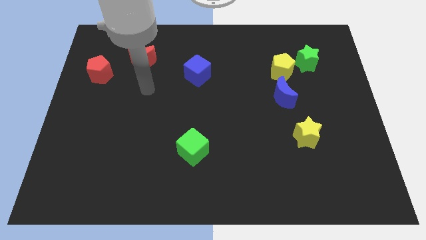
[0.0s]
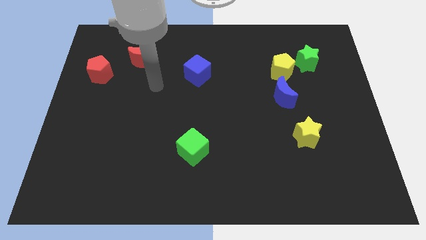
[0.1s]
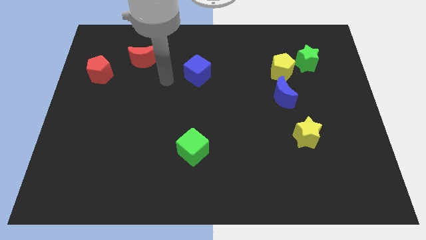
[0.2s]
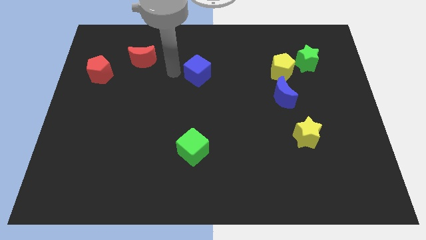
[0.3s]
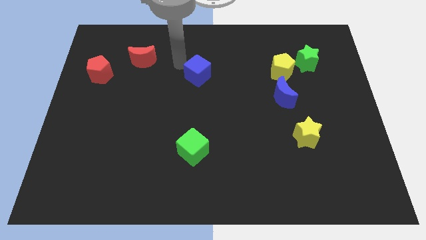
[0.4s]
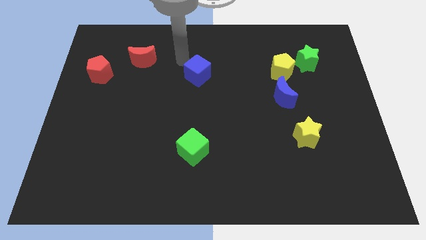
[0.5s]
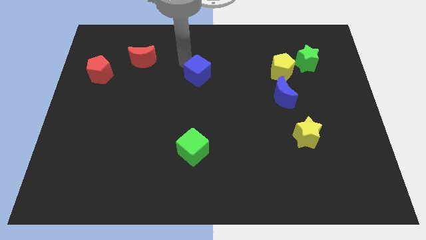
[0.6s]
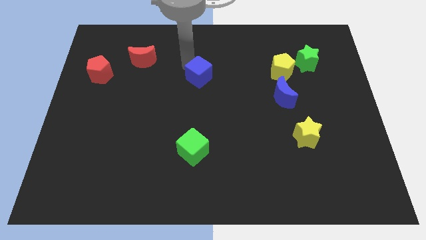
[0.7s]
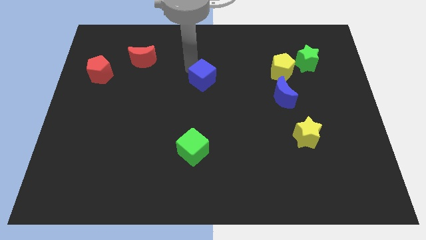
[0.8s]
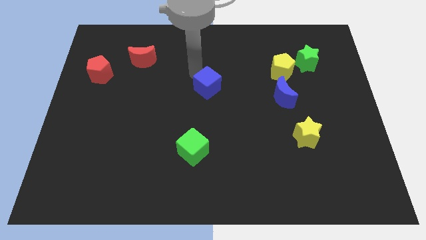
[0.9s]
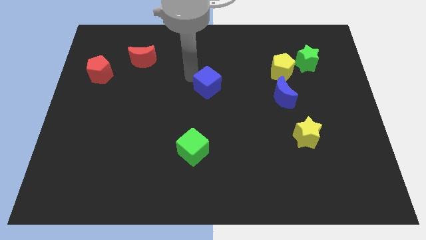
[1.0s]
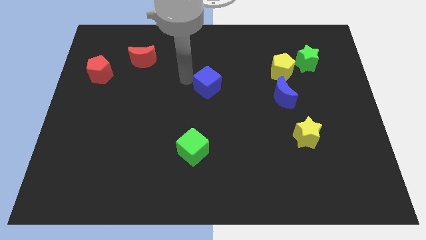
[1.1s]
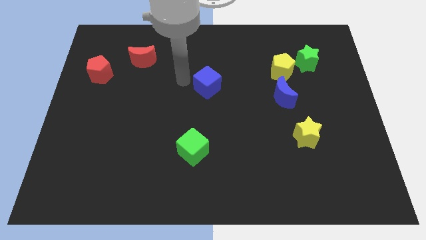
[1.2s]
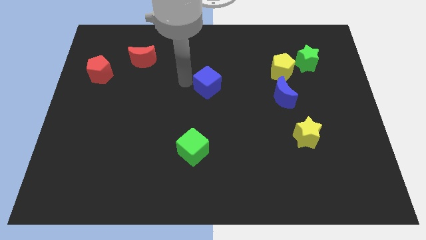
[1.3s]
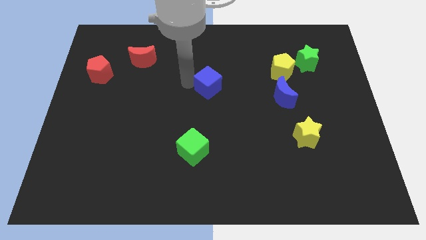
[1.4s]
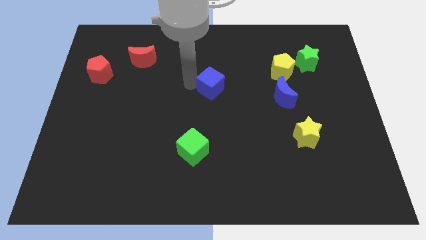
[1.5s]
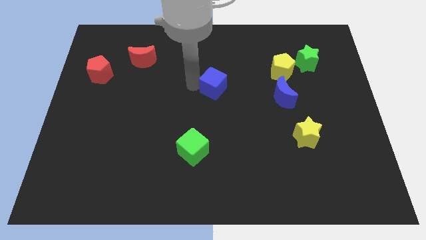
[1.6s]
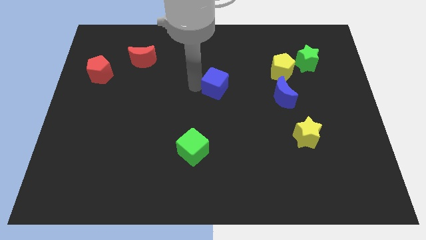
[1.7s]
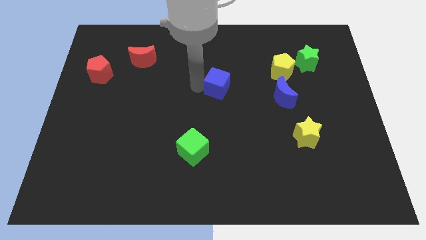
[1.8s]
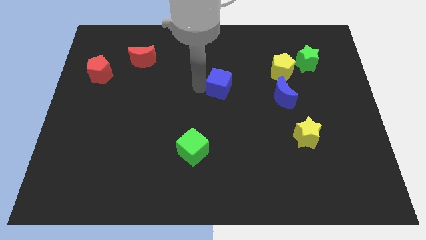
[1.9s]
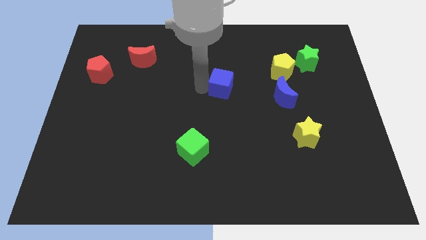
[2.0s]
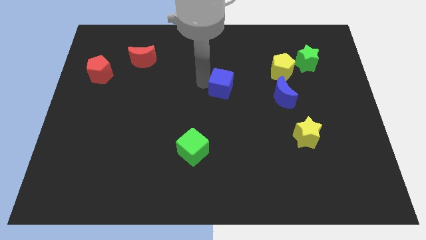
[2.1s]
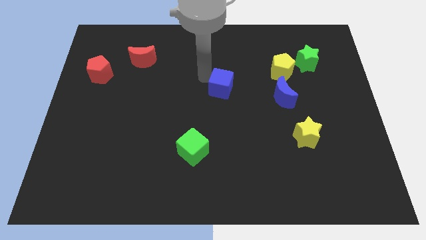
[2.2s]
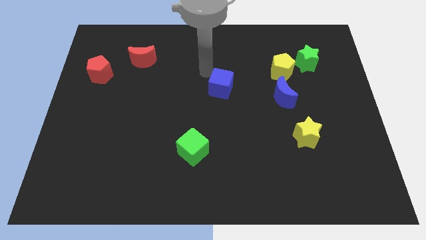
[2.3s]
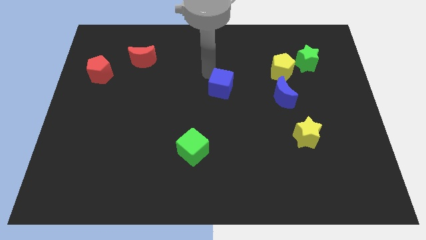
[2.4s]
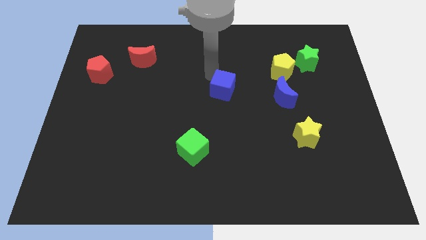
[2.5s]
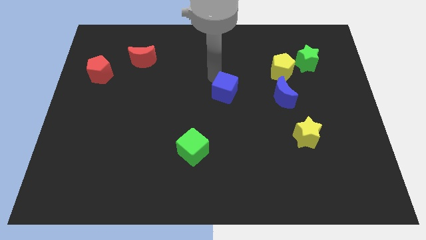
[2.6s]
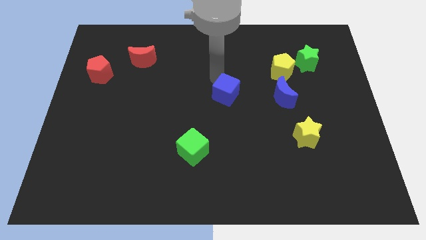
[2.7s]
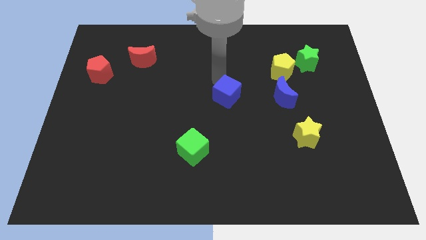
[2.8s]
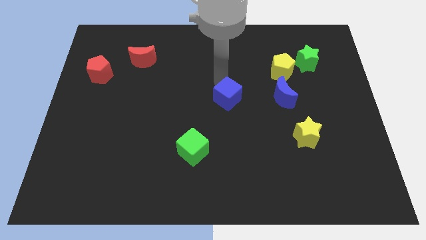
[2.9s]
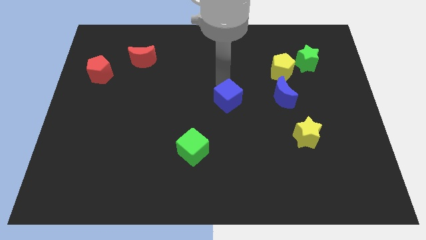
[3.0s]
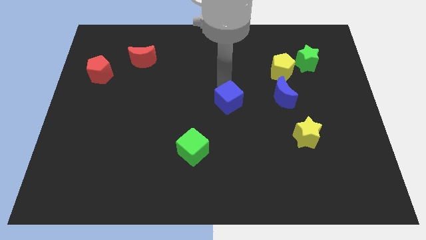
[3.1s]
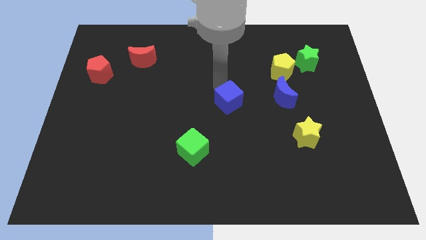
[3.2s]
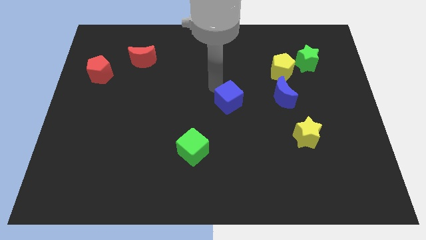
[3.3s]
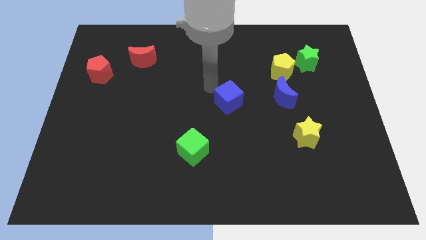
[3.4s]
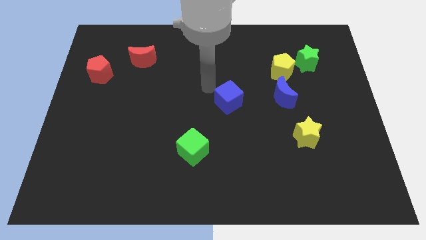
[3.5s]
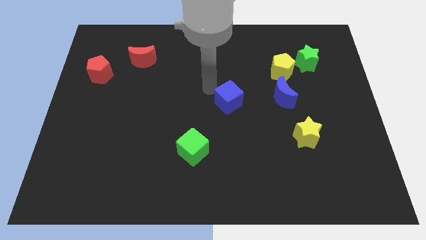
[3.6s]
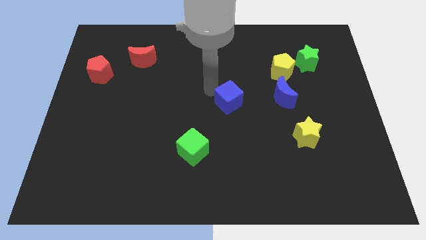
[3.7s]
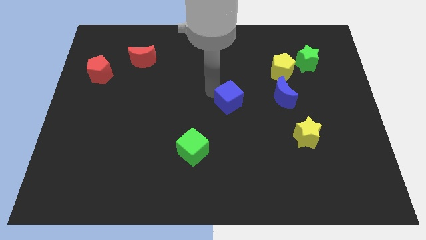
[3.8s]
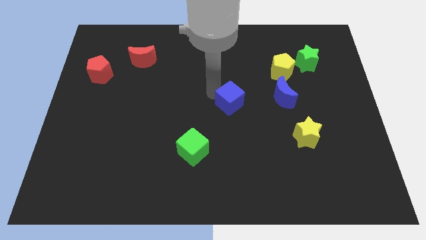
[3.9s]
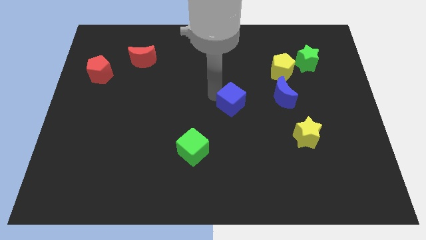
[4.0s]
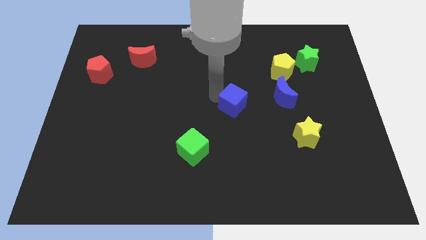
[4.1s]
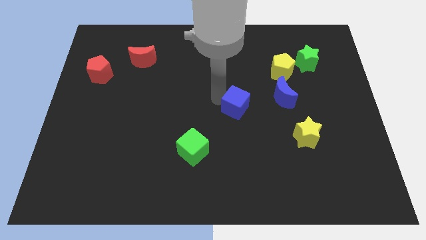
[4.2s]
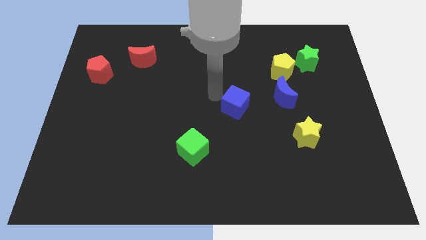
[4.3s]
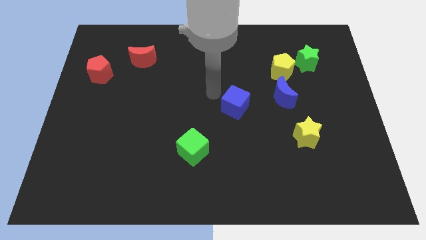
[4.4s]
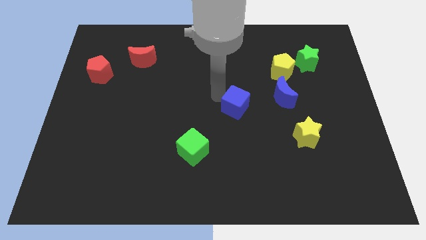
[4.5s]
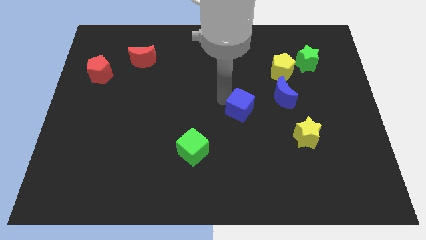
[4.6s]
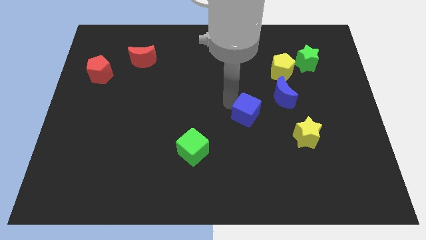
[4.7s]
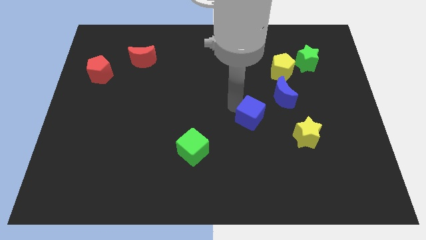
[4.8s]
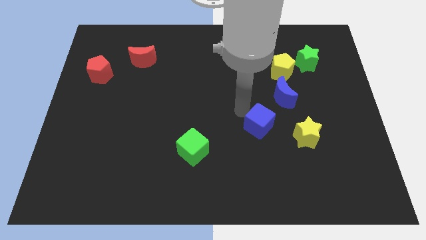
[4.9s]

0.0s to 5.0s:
slide the blue cube diagonally downwards and to the right

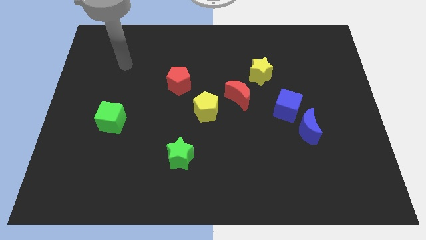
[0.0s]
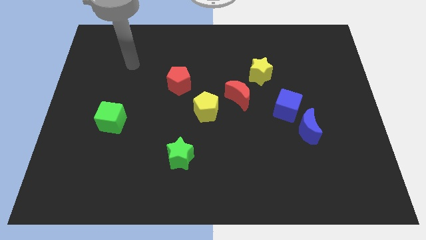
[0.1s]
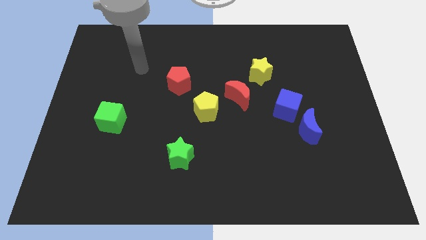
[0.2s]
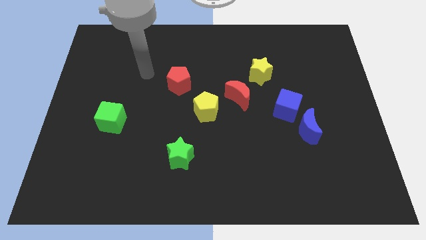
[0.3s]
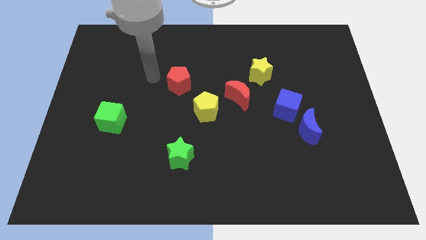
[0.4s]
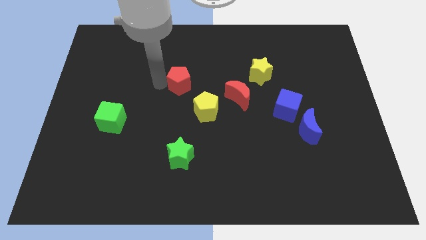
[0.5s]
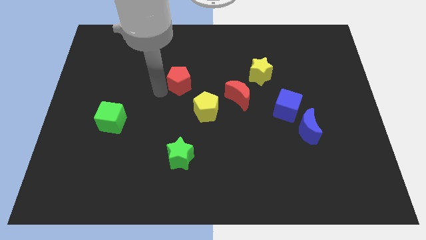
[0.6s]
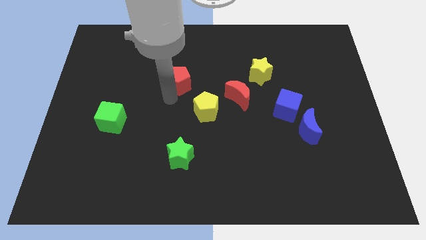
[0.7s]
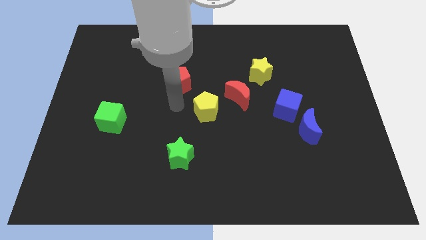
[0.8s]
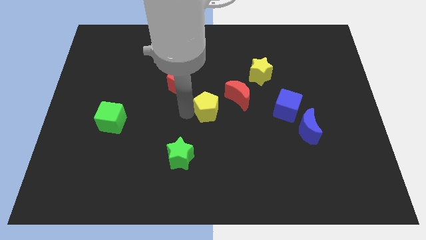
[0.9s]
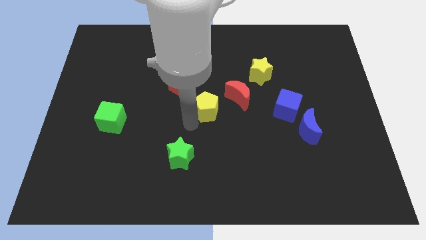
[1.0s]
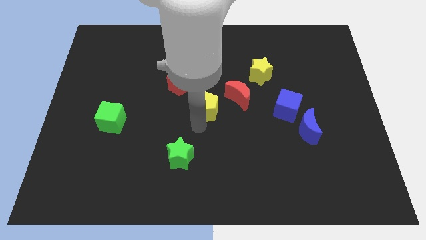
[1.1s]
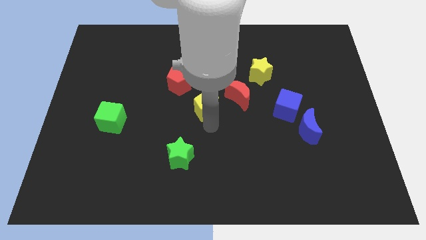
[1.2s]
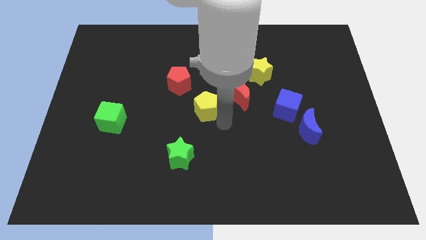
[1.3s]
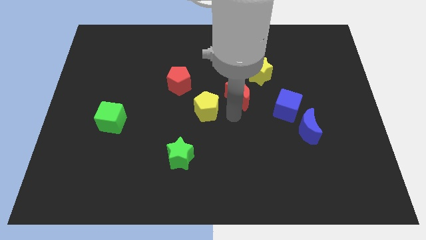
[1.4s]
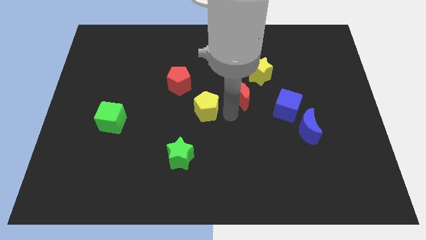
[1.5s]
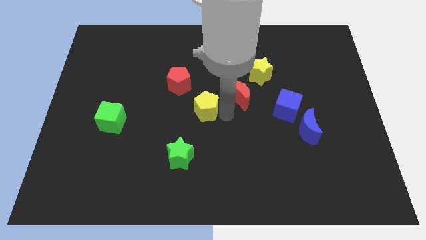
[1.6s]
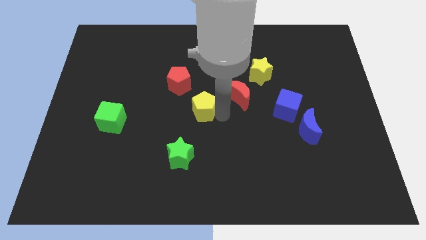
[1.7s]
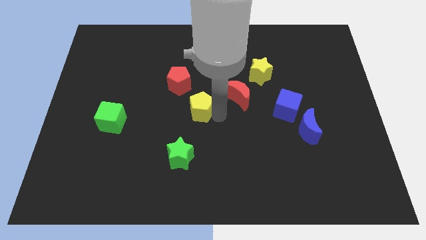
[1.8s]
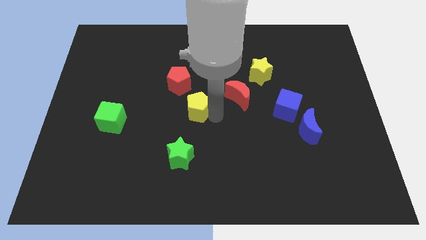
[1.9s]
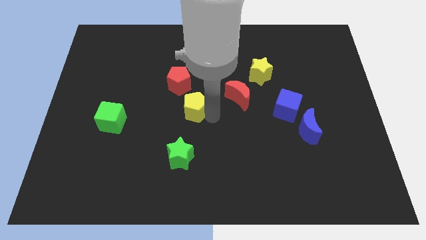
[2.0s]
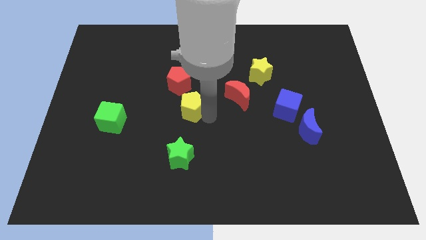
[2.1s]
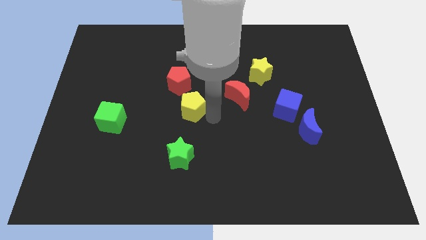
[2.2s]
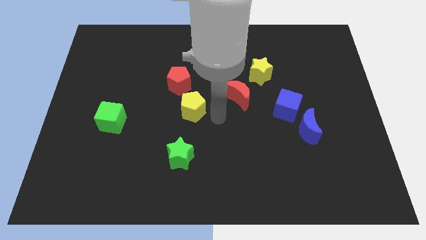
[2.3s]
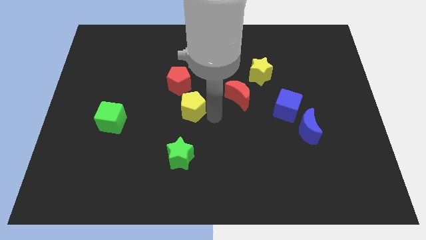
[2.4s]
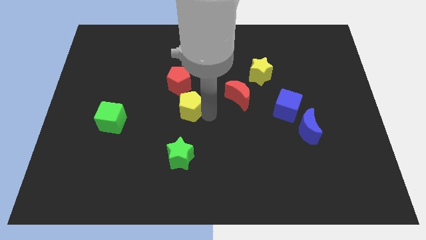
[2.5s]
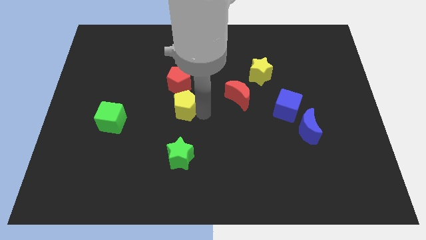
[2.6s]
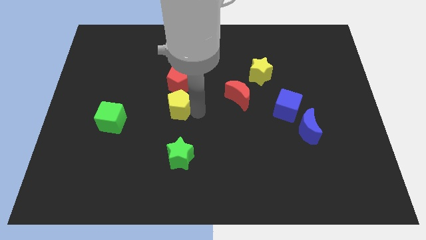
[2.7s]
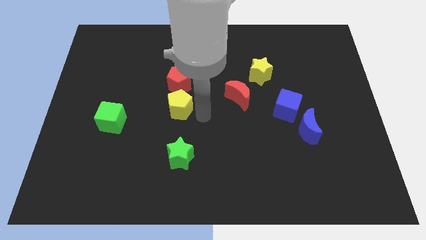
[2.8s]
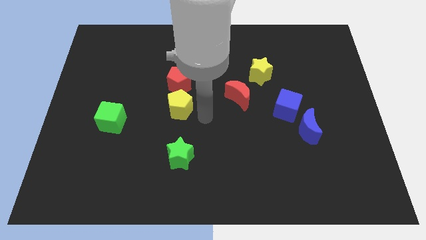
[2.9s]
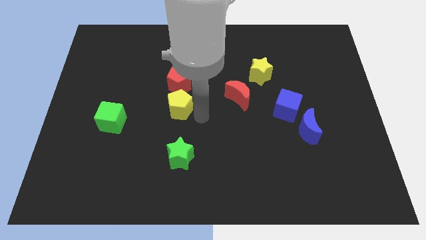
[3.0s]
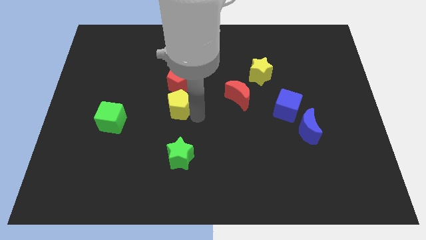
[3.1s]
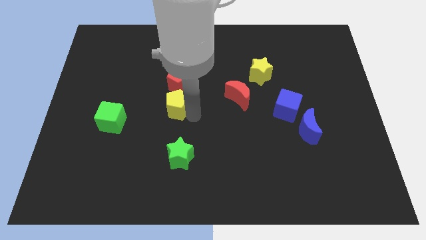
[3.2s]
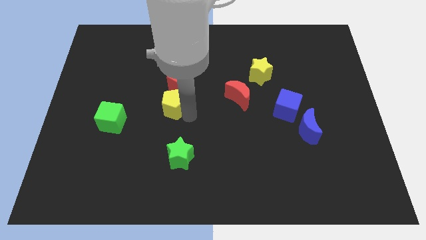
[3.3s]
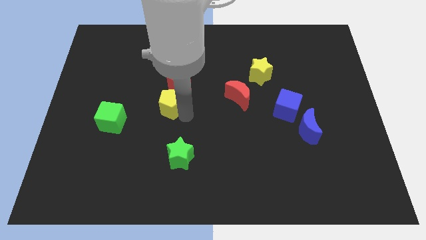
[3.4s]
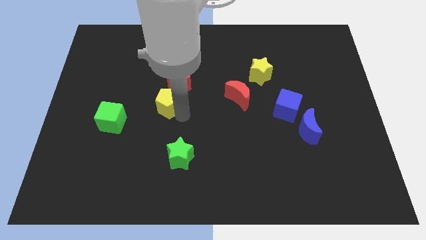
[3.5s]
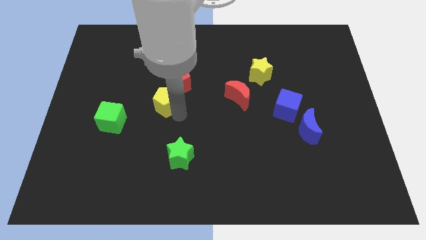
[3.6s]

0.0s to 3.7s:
slightly push the yellow pentagon upwards and to the left
